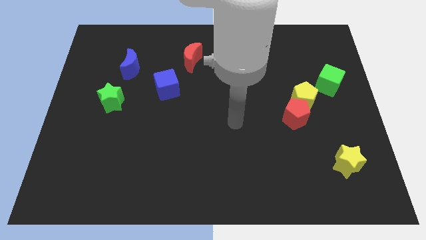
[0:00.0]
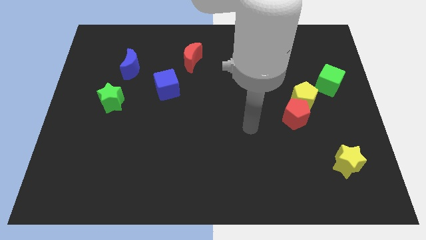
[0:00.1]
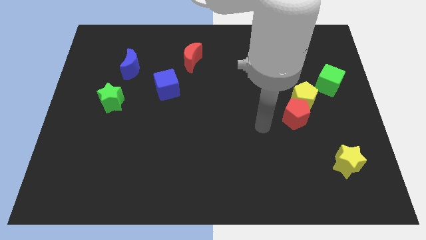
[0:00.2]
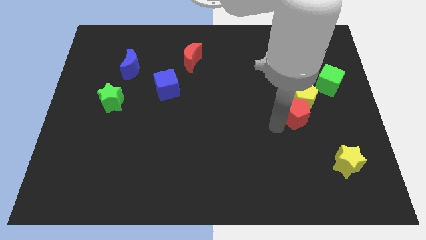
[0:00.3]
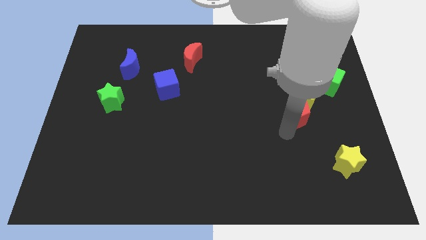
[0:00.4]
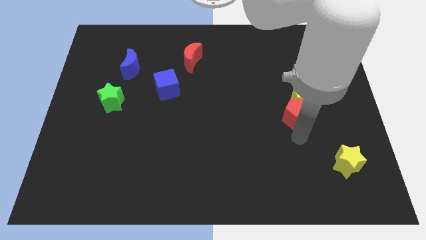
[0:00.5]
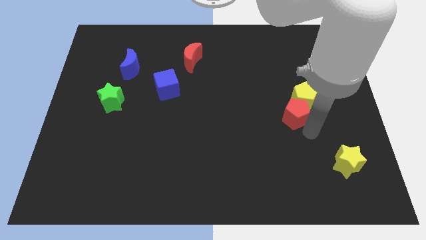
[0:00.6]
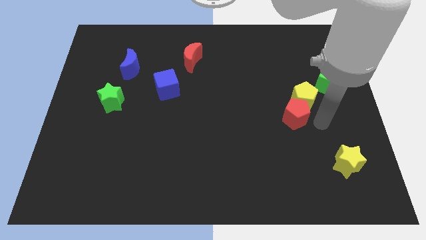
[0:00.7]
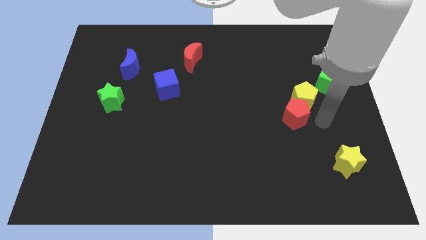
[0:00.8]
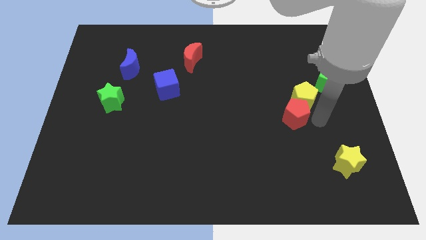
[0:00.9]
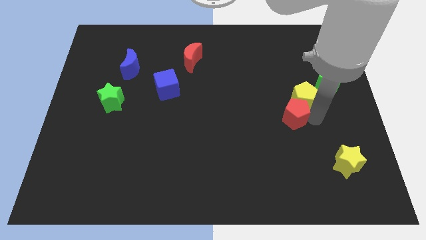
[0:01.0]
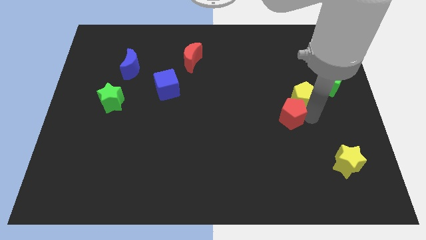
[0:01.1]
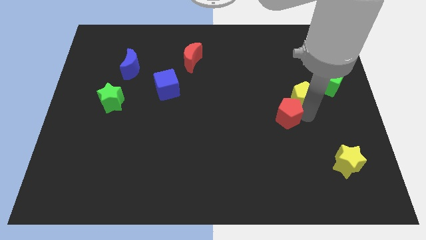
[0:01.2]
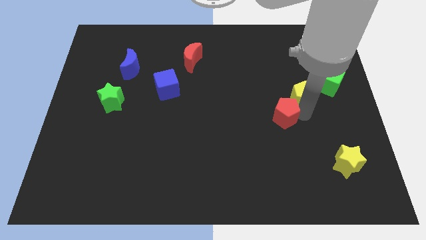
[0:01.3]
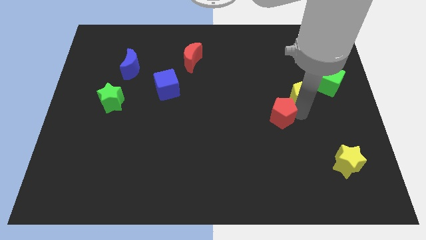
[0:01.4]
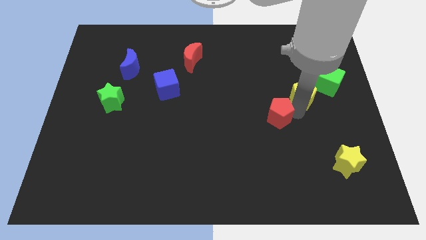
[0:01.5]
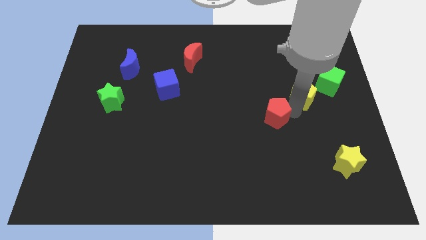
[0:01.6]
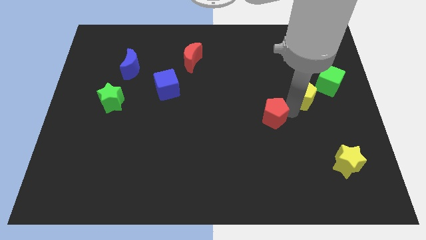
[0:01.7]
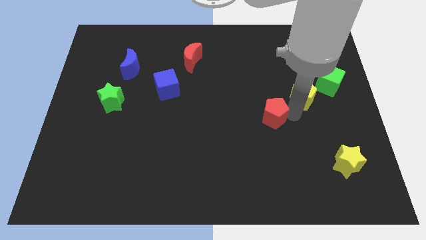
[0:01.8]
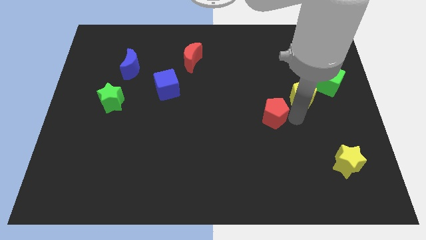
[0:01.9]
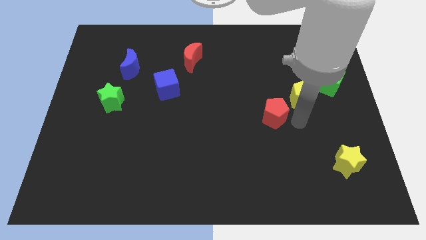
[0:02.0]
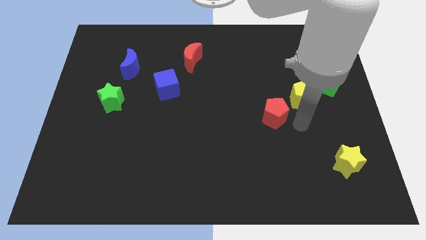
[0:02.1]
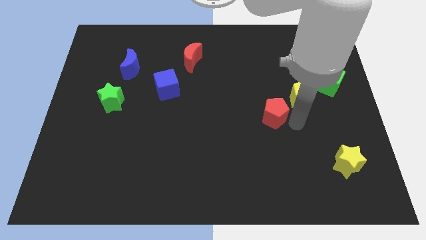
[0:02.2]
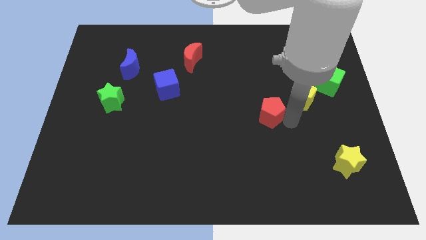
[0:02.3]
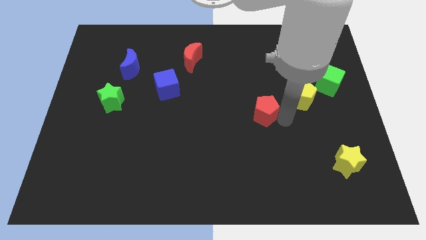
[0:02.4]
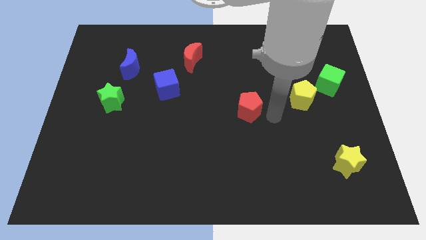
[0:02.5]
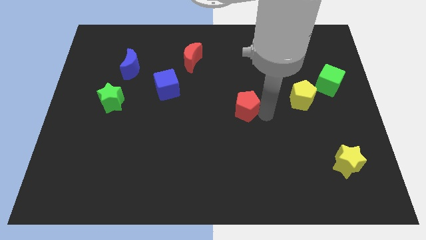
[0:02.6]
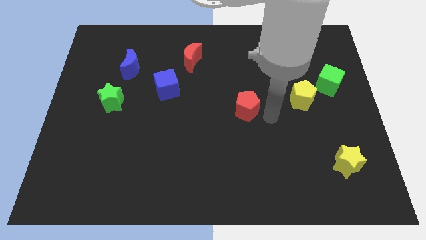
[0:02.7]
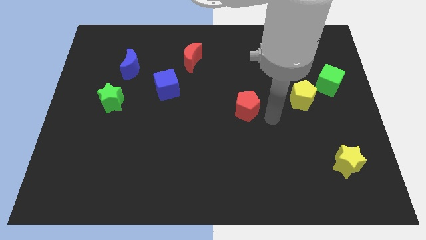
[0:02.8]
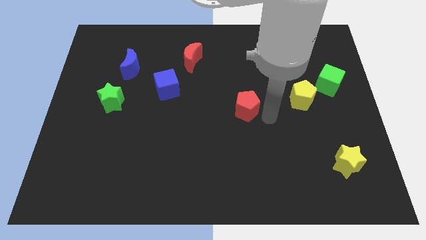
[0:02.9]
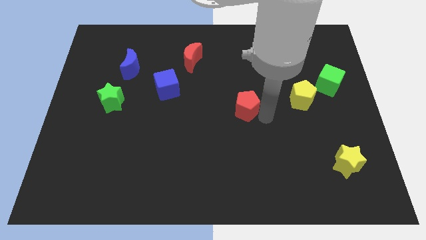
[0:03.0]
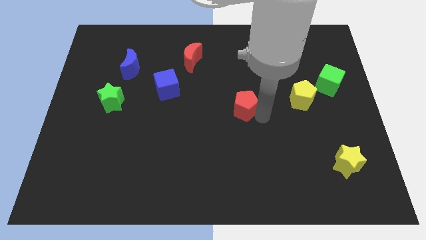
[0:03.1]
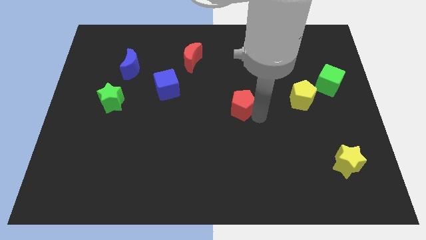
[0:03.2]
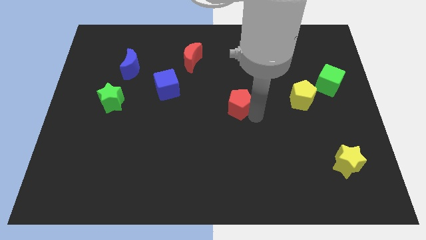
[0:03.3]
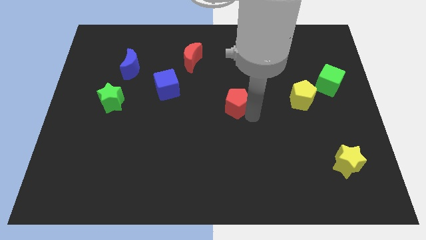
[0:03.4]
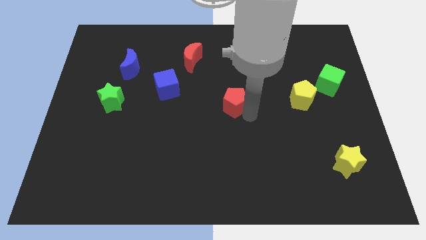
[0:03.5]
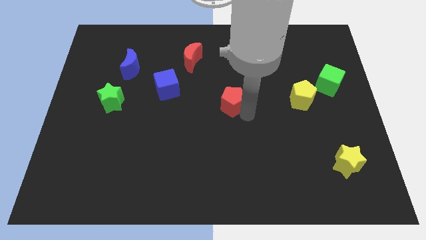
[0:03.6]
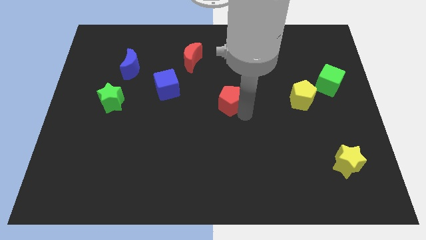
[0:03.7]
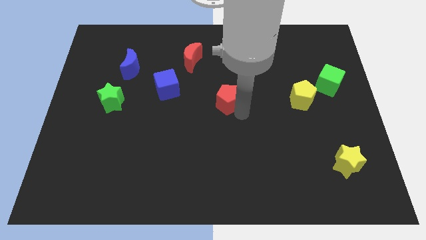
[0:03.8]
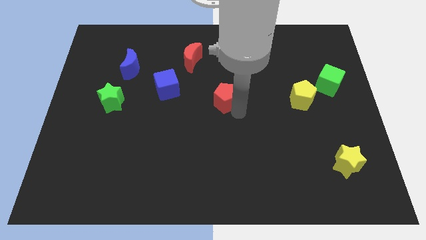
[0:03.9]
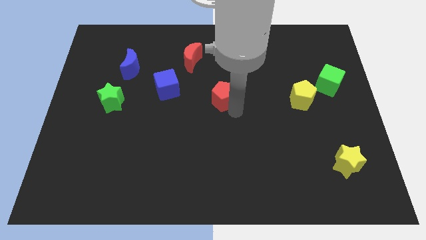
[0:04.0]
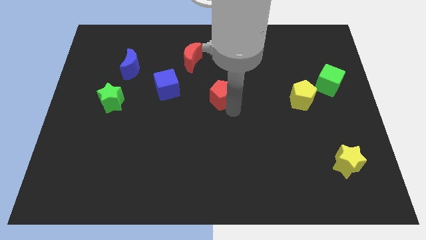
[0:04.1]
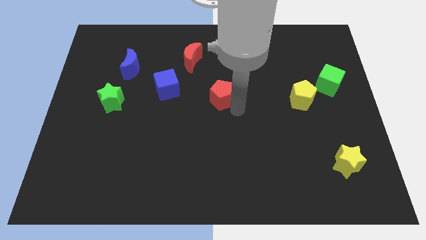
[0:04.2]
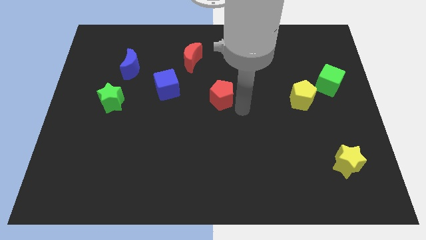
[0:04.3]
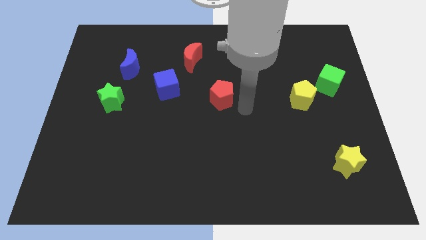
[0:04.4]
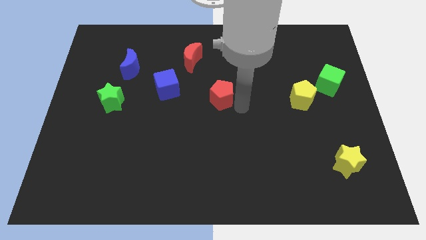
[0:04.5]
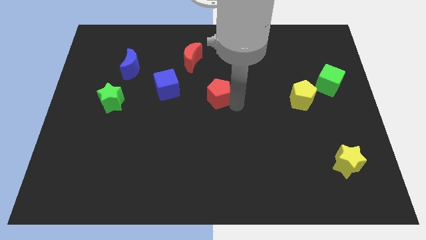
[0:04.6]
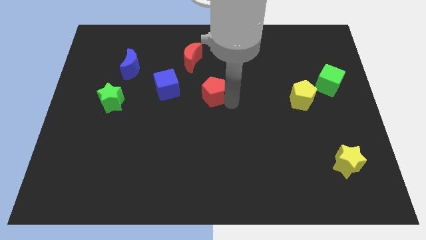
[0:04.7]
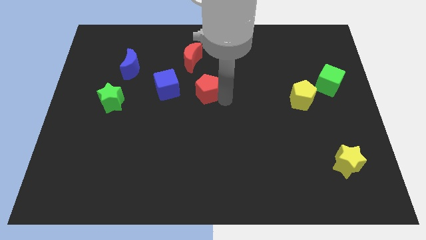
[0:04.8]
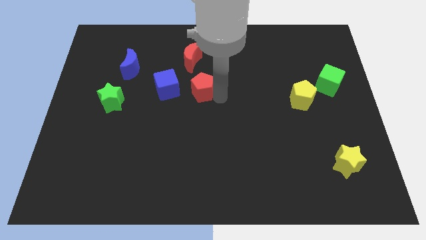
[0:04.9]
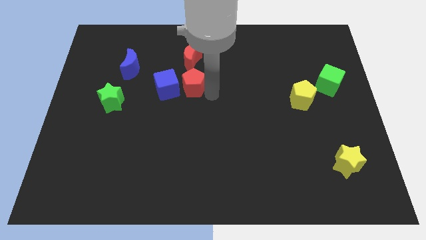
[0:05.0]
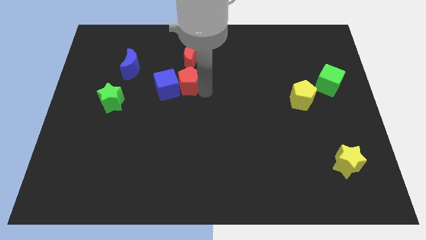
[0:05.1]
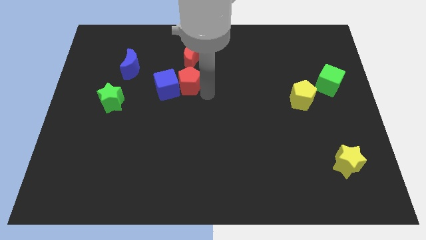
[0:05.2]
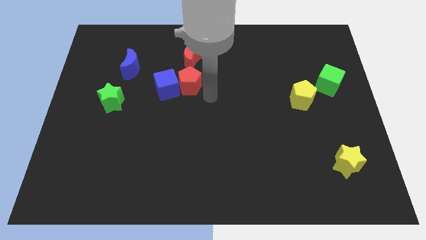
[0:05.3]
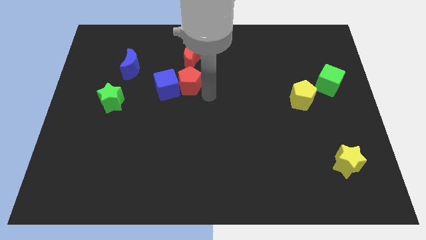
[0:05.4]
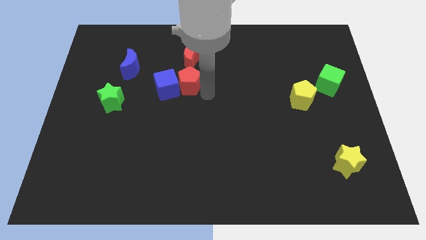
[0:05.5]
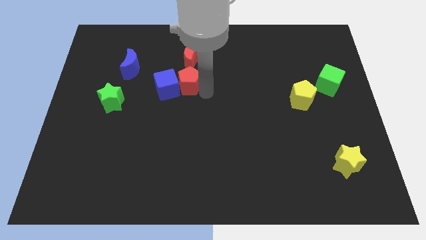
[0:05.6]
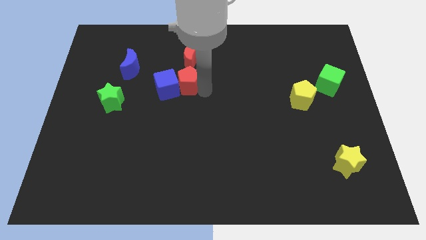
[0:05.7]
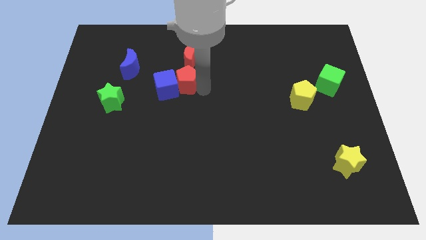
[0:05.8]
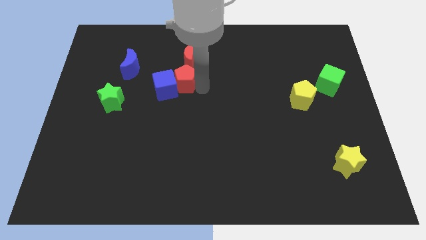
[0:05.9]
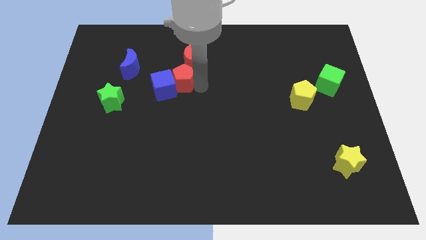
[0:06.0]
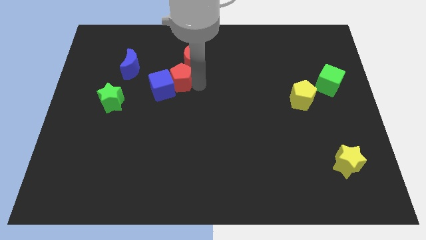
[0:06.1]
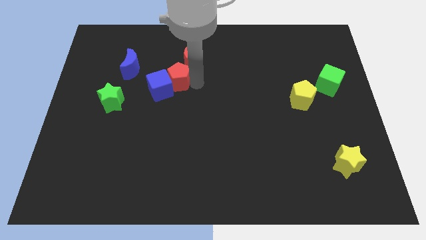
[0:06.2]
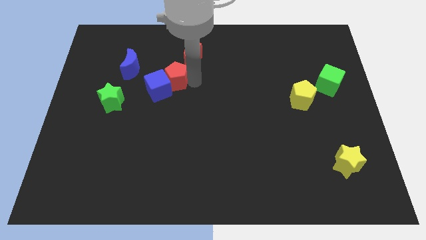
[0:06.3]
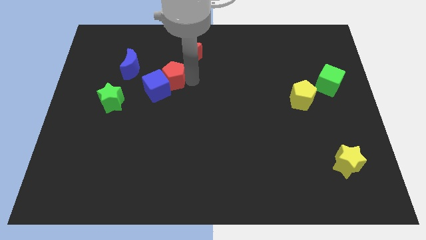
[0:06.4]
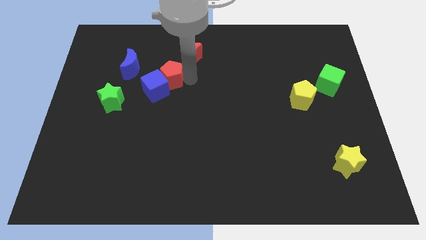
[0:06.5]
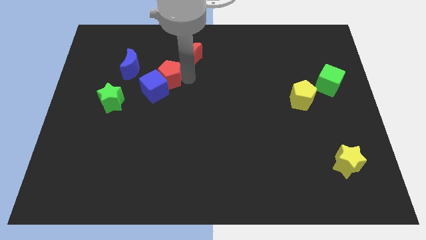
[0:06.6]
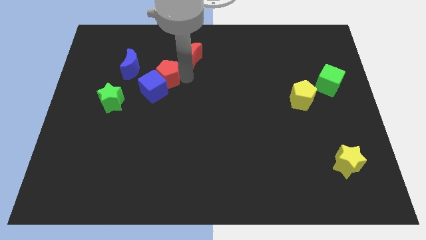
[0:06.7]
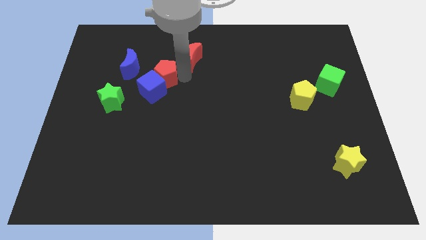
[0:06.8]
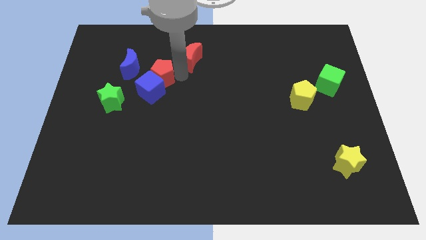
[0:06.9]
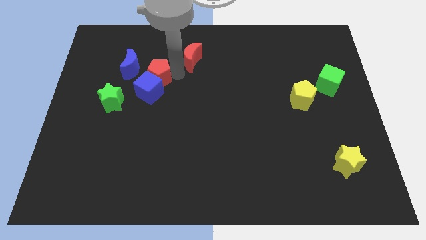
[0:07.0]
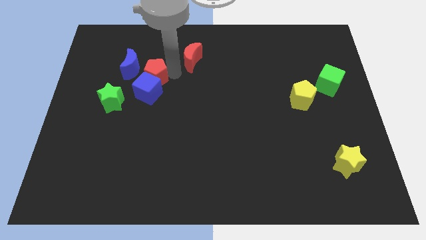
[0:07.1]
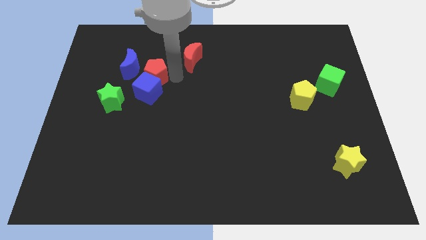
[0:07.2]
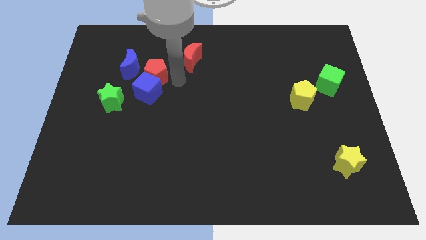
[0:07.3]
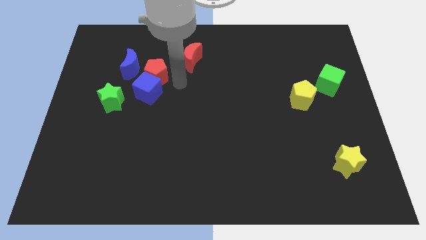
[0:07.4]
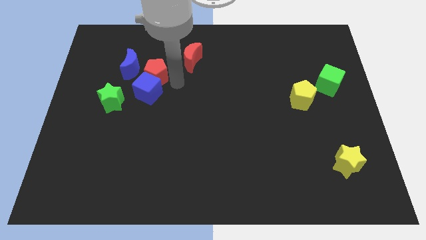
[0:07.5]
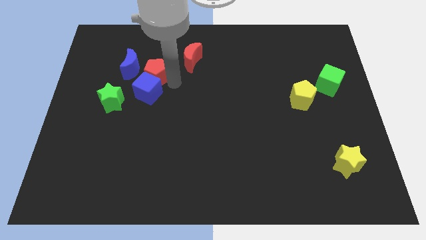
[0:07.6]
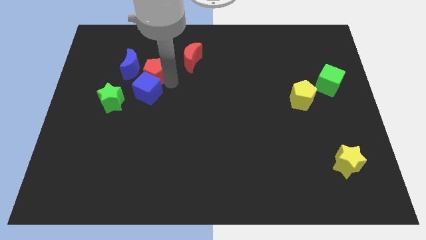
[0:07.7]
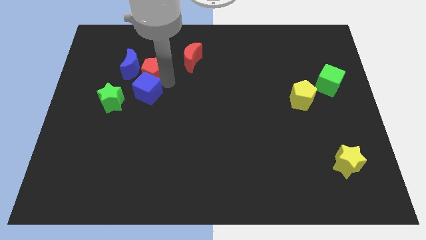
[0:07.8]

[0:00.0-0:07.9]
put the red pentagon towards the blue moon
